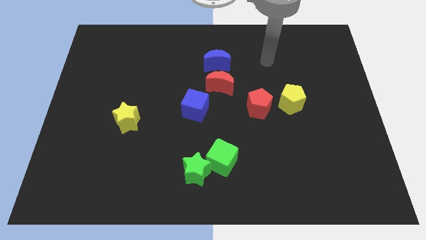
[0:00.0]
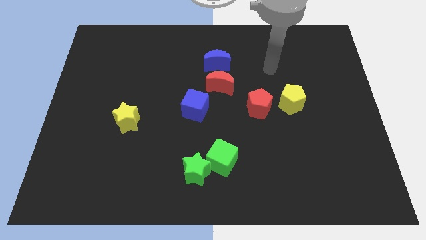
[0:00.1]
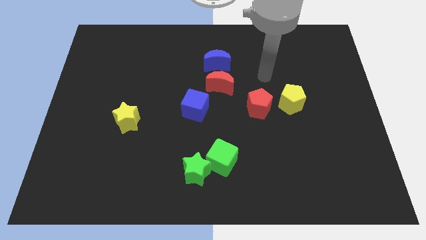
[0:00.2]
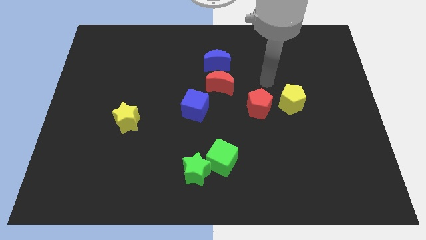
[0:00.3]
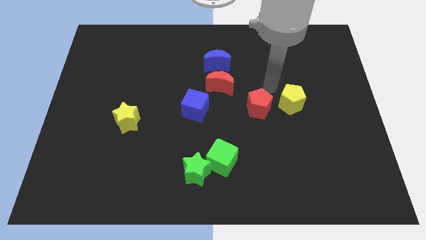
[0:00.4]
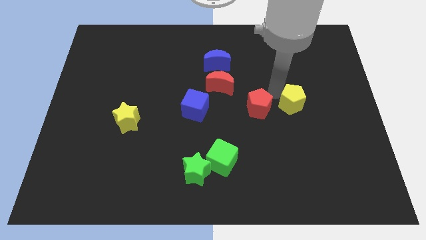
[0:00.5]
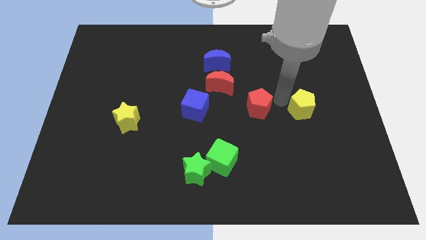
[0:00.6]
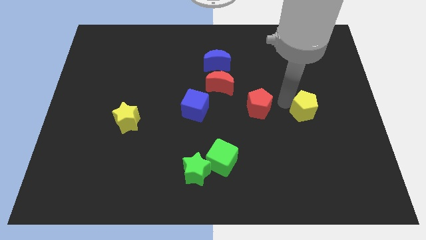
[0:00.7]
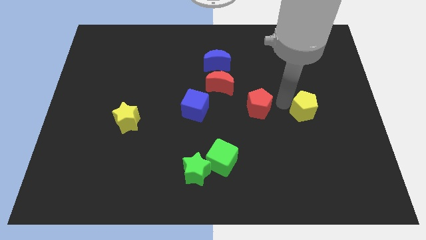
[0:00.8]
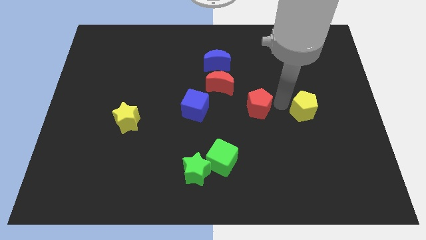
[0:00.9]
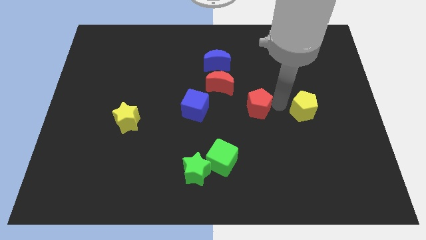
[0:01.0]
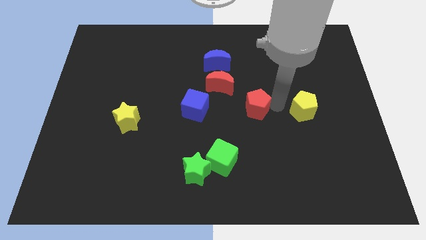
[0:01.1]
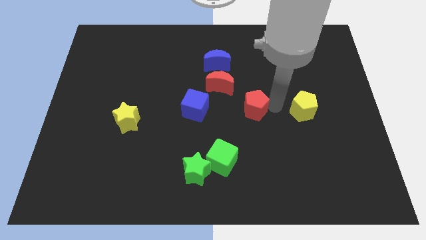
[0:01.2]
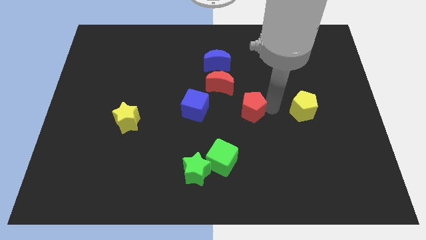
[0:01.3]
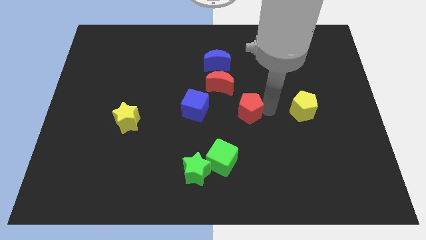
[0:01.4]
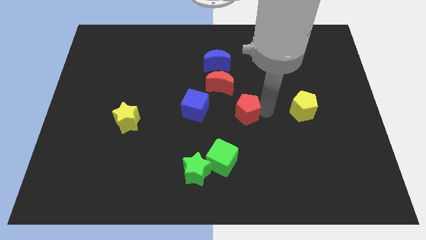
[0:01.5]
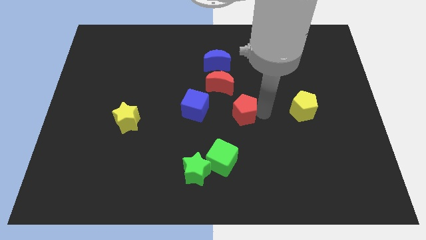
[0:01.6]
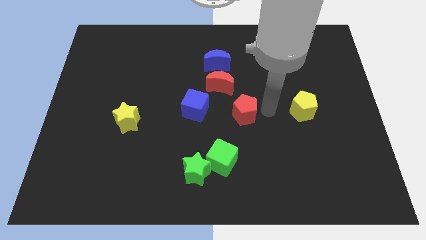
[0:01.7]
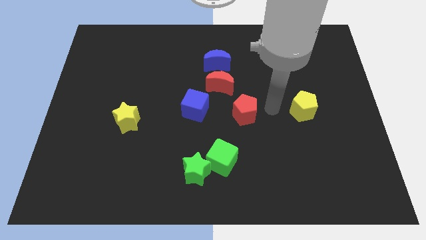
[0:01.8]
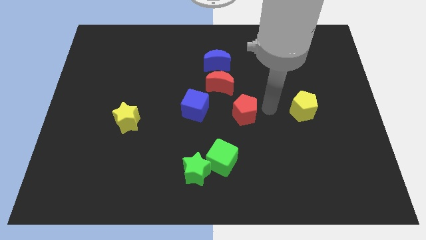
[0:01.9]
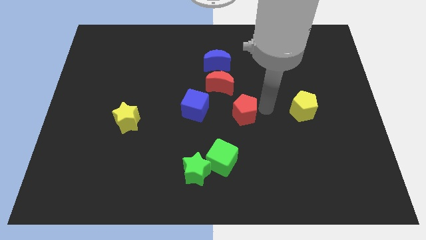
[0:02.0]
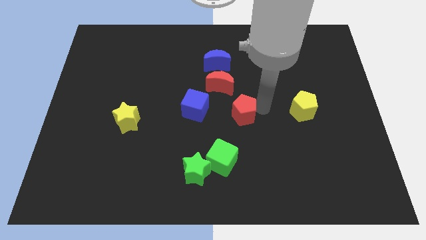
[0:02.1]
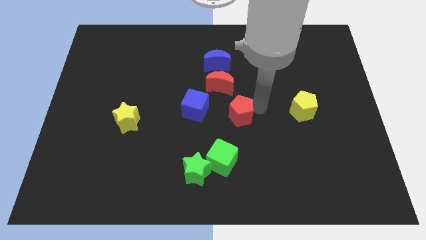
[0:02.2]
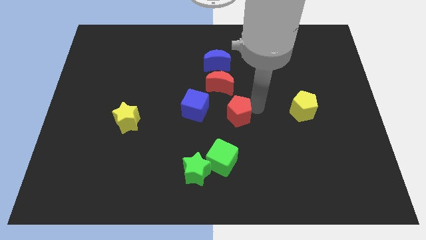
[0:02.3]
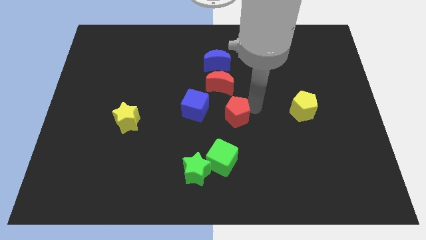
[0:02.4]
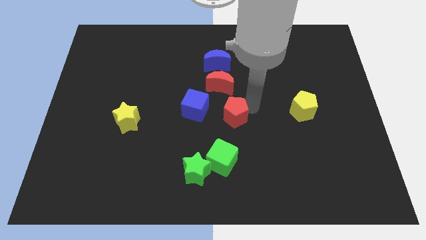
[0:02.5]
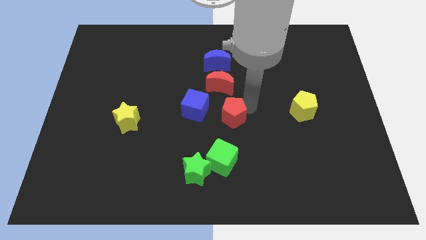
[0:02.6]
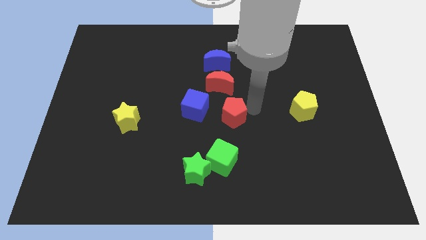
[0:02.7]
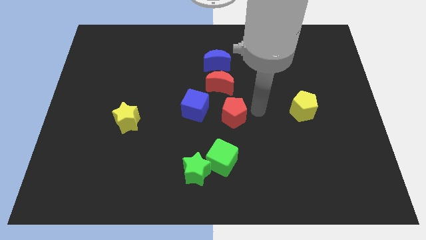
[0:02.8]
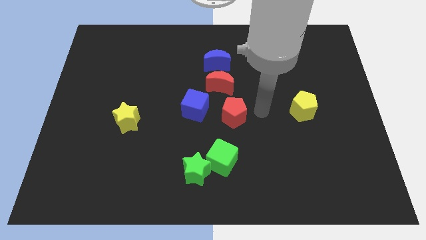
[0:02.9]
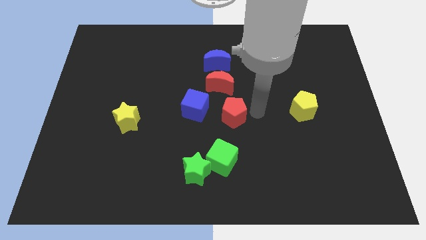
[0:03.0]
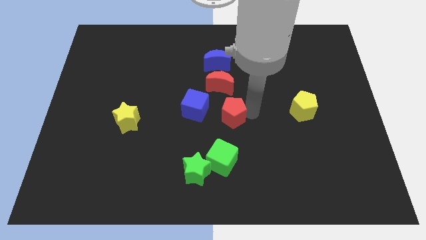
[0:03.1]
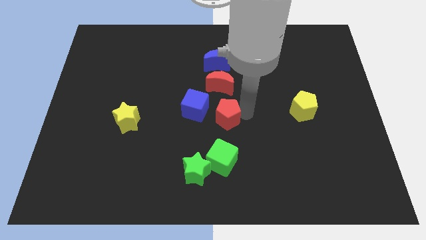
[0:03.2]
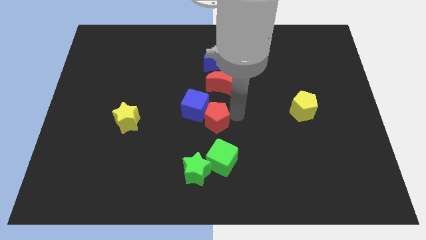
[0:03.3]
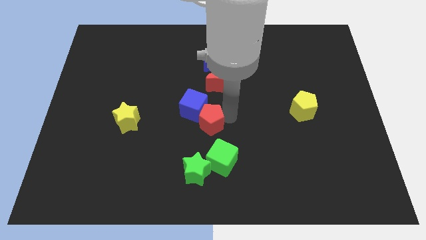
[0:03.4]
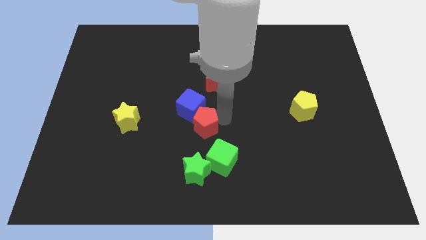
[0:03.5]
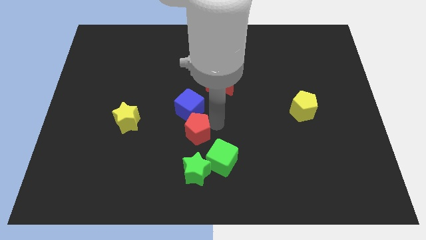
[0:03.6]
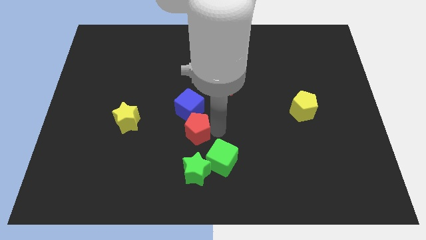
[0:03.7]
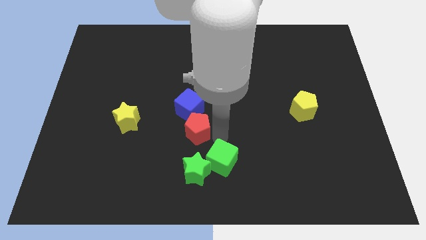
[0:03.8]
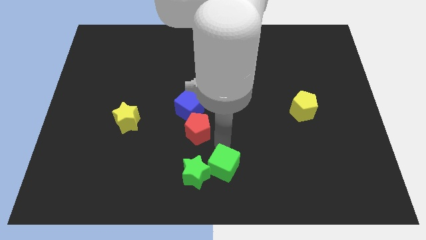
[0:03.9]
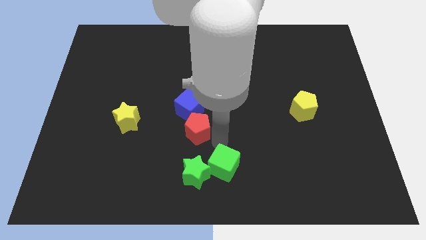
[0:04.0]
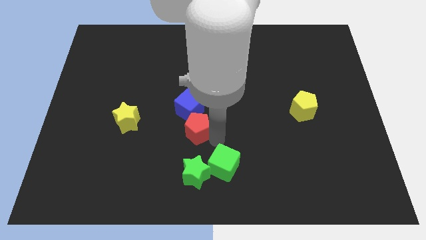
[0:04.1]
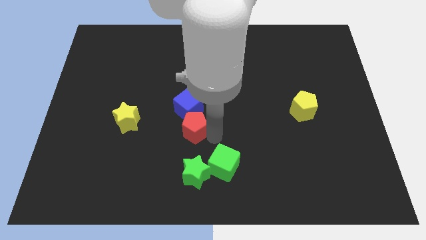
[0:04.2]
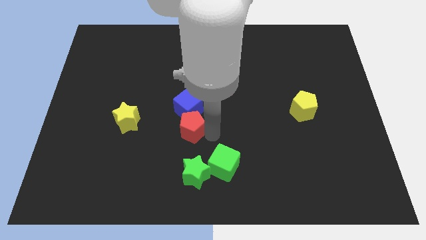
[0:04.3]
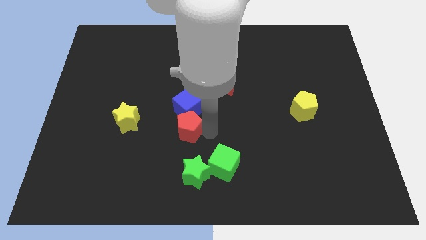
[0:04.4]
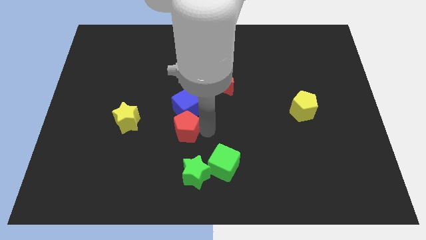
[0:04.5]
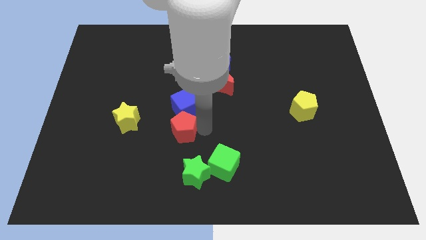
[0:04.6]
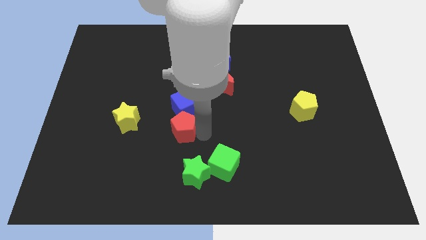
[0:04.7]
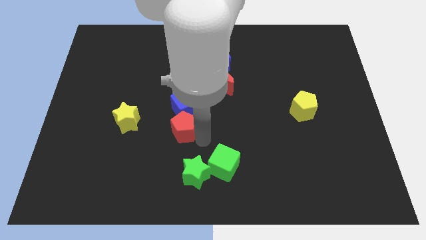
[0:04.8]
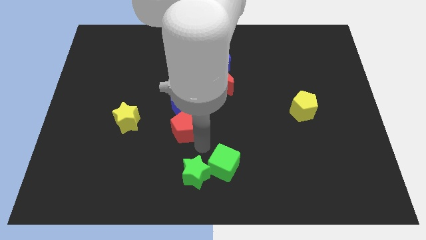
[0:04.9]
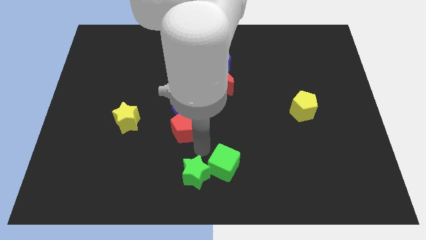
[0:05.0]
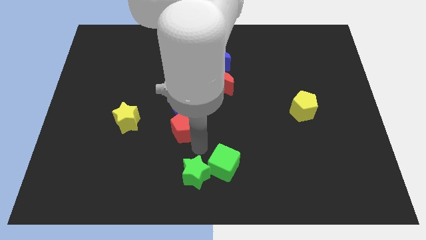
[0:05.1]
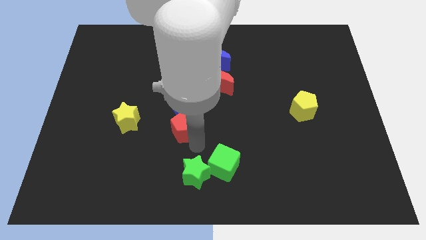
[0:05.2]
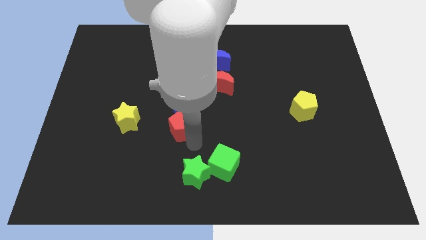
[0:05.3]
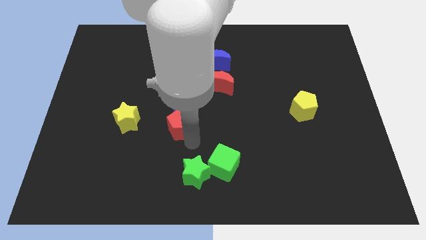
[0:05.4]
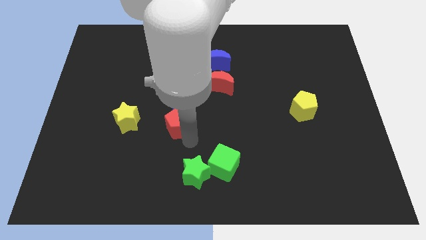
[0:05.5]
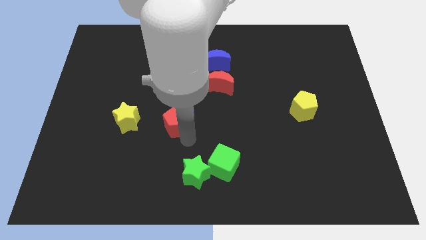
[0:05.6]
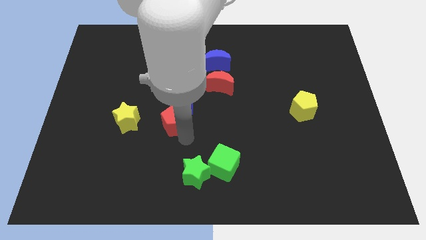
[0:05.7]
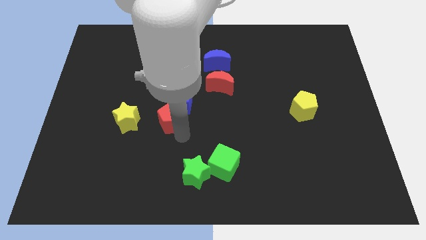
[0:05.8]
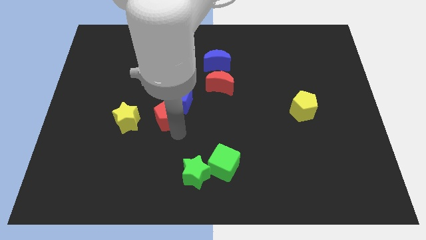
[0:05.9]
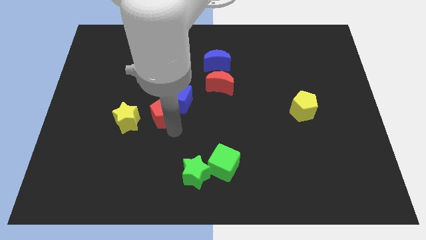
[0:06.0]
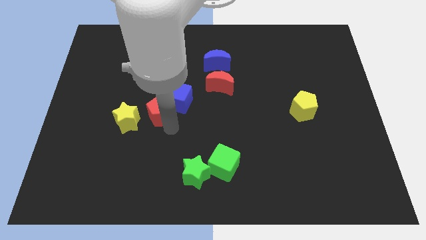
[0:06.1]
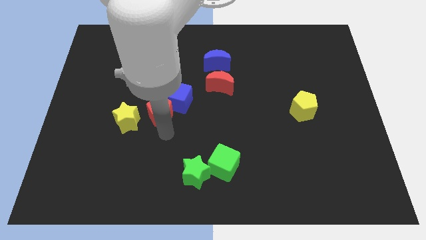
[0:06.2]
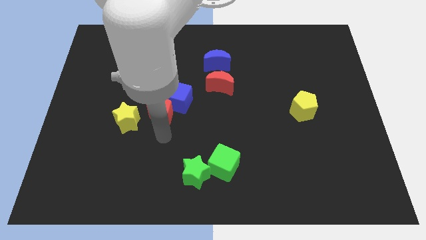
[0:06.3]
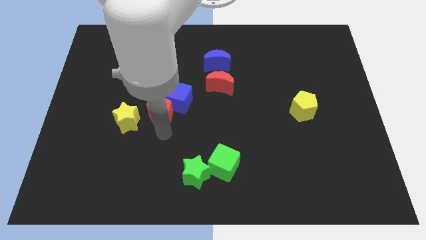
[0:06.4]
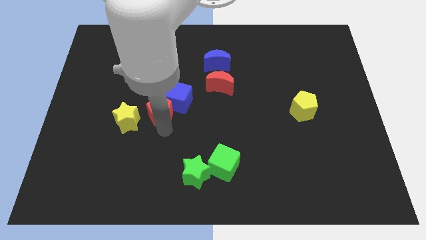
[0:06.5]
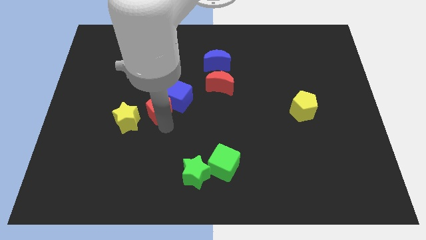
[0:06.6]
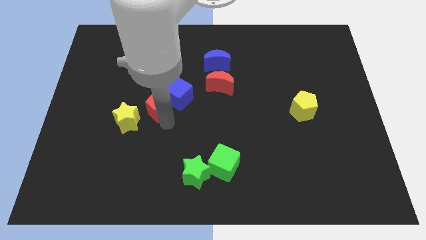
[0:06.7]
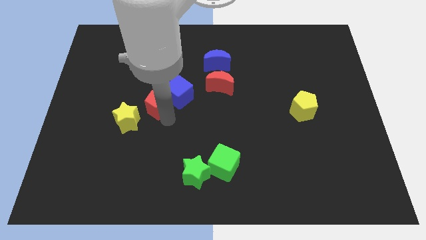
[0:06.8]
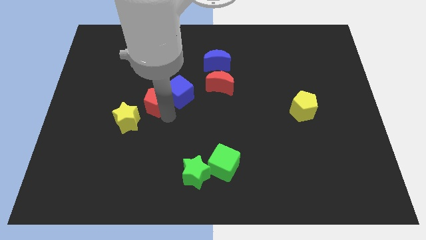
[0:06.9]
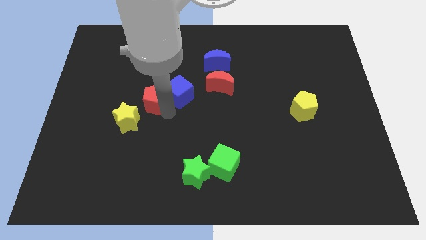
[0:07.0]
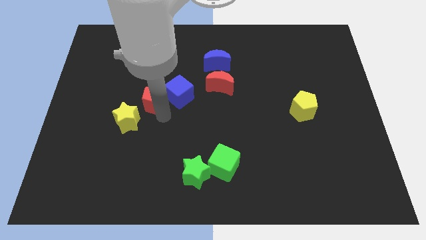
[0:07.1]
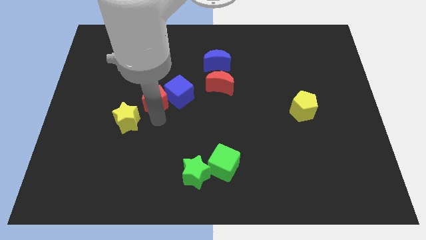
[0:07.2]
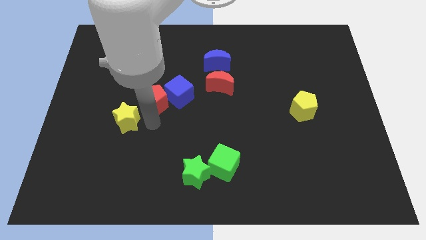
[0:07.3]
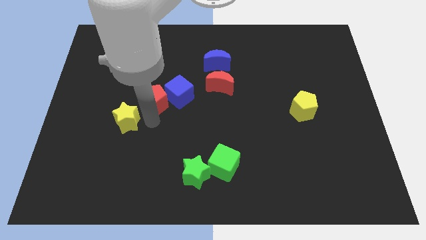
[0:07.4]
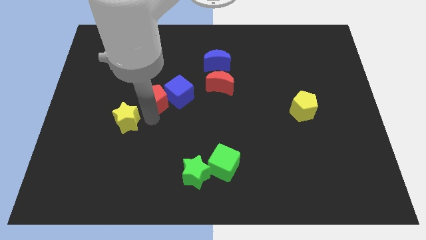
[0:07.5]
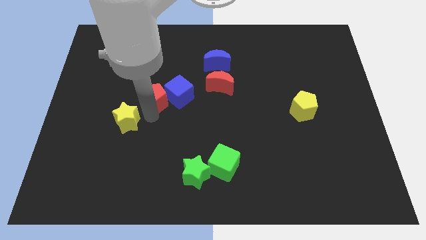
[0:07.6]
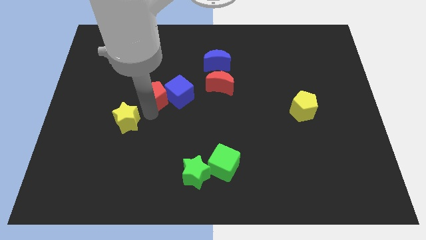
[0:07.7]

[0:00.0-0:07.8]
put the red pentagon diagonally up and to the left of the blue cube
